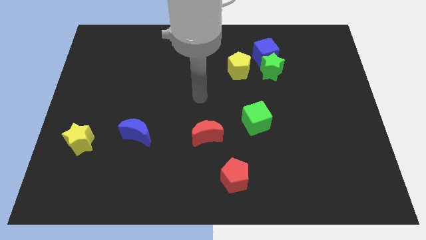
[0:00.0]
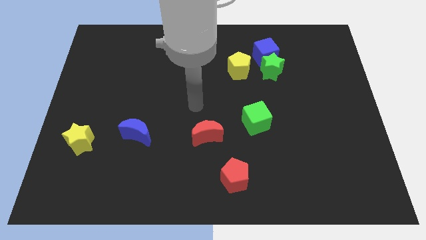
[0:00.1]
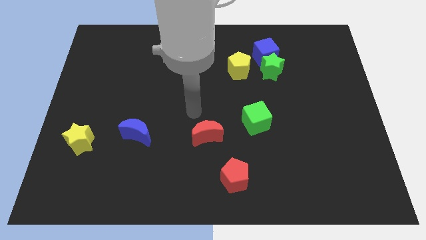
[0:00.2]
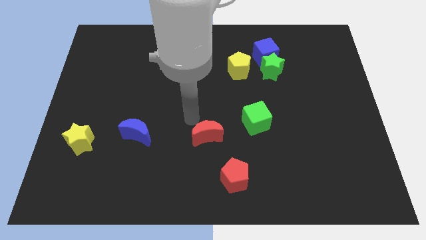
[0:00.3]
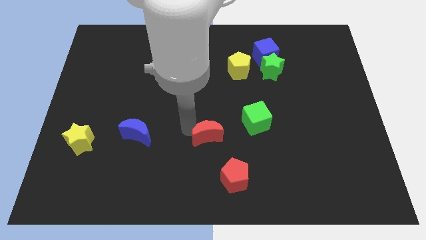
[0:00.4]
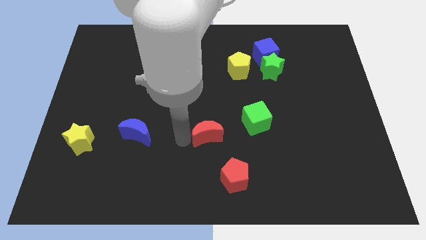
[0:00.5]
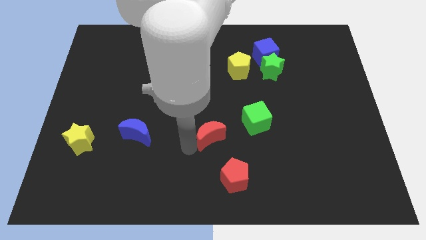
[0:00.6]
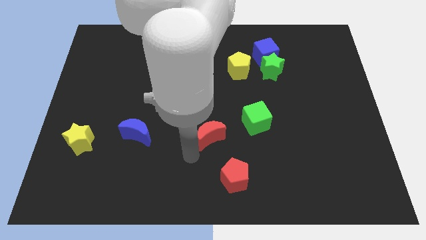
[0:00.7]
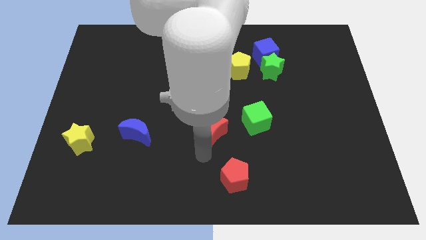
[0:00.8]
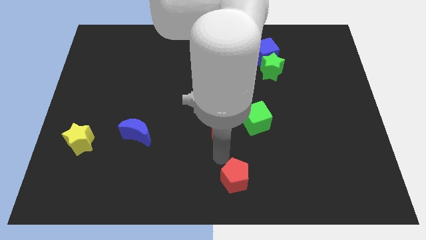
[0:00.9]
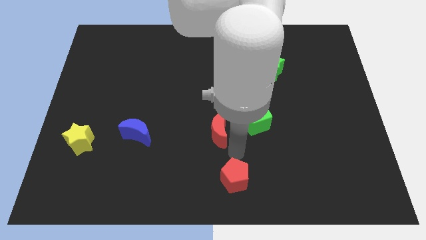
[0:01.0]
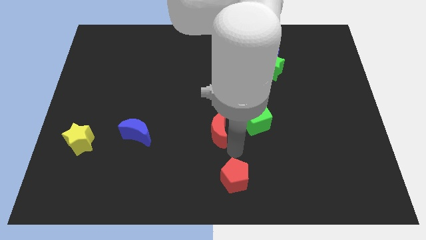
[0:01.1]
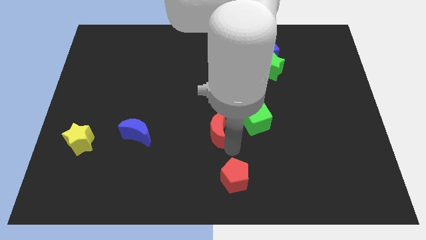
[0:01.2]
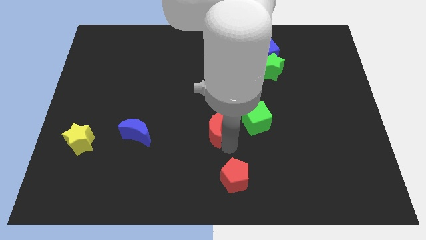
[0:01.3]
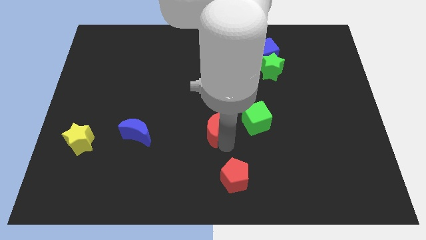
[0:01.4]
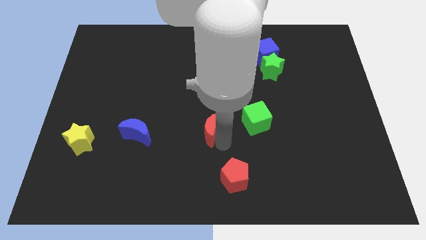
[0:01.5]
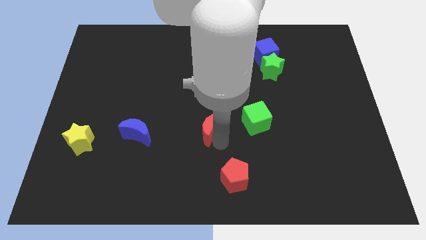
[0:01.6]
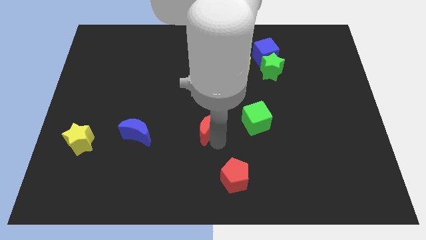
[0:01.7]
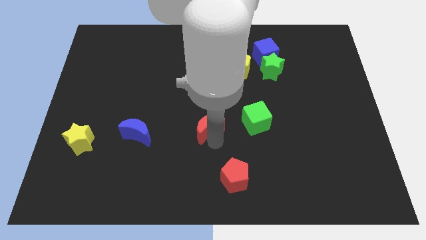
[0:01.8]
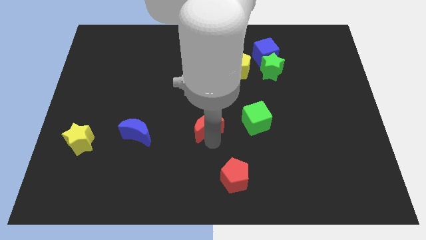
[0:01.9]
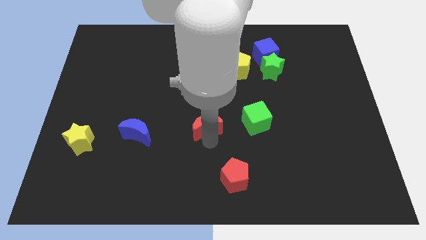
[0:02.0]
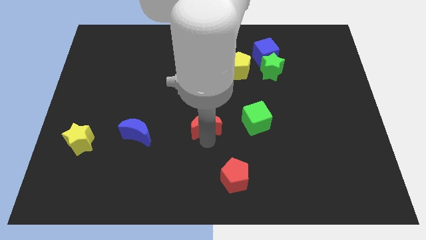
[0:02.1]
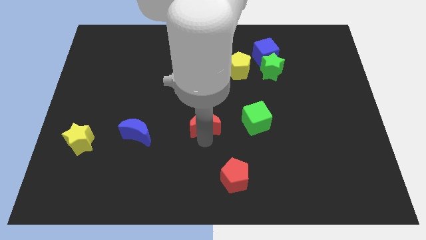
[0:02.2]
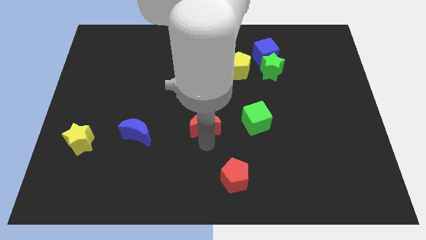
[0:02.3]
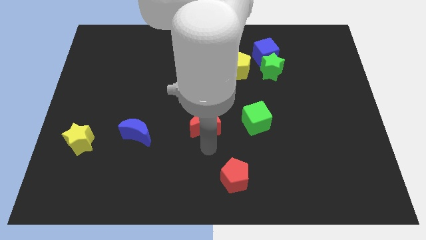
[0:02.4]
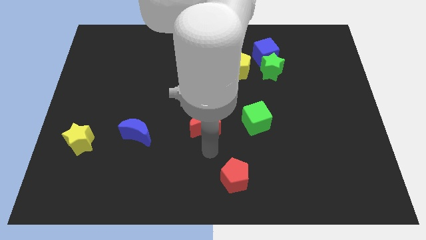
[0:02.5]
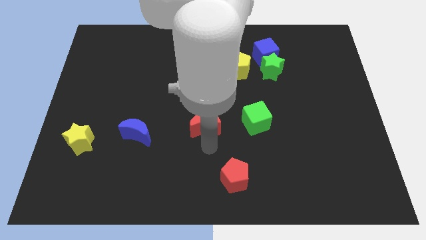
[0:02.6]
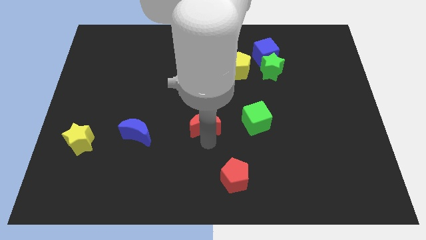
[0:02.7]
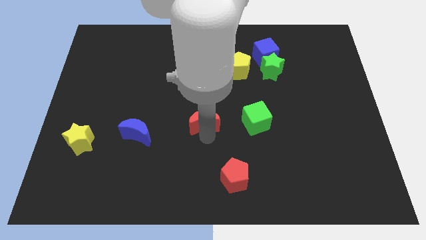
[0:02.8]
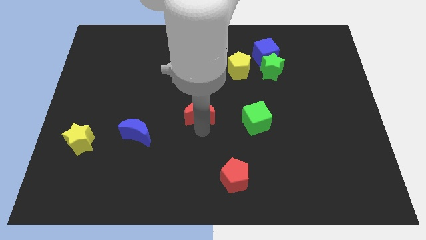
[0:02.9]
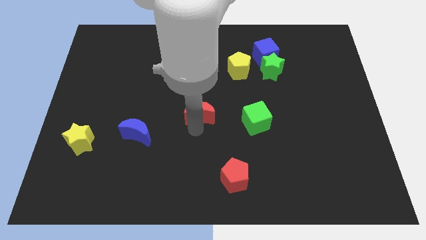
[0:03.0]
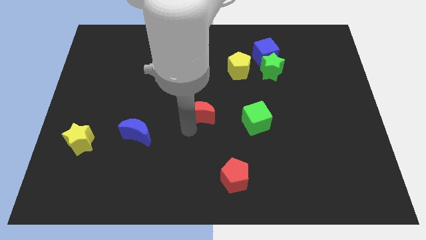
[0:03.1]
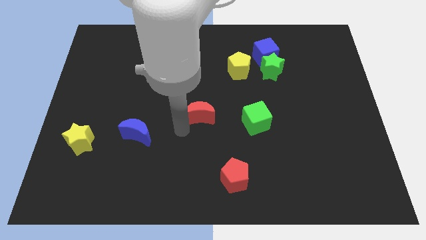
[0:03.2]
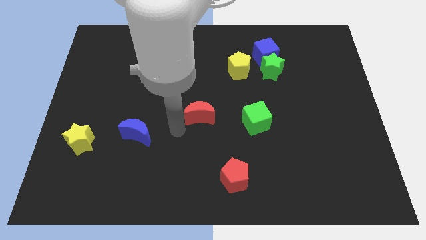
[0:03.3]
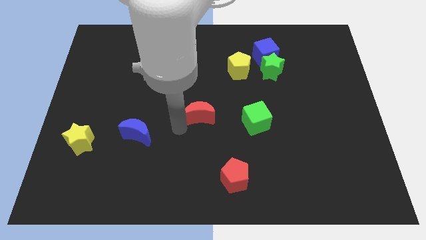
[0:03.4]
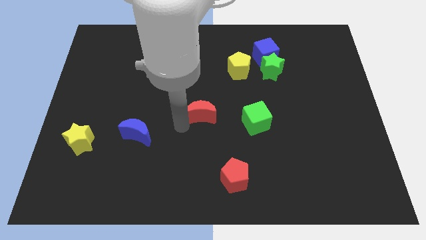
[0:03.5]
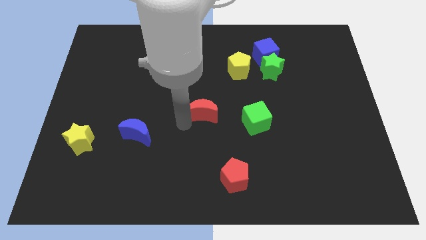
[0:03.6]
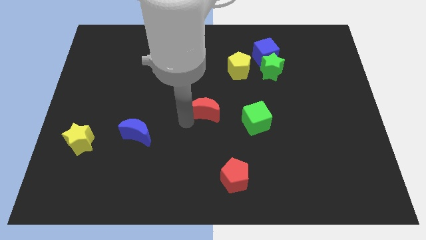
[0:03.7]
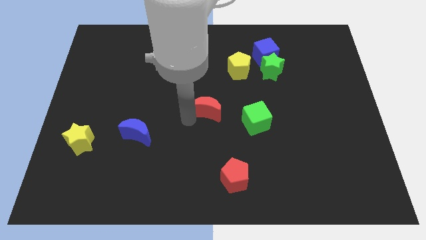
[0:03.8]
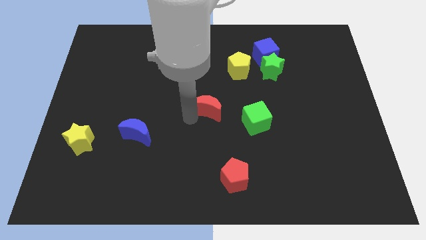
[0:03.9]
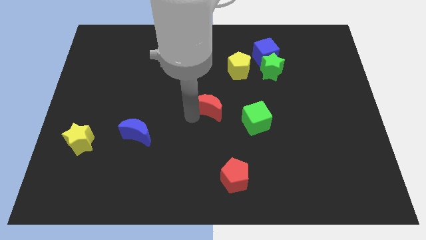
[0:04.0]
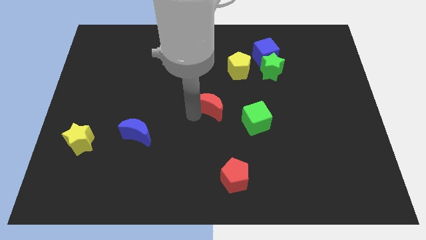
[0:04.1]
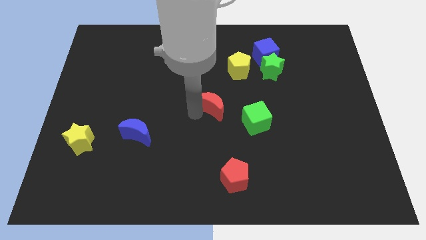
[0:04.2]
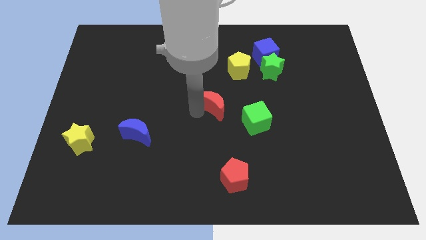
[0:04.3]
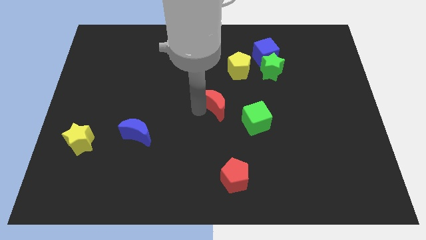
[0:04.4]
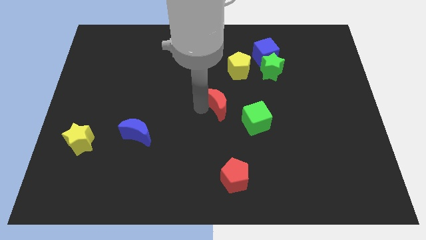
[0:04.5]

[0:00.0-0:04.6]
slide the red moon slightly up and right diagonally

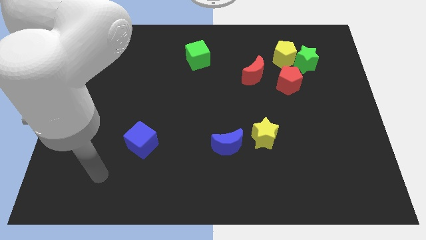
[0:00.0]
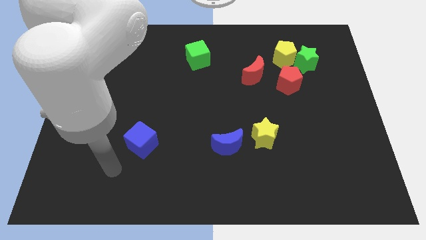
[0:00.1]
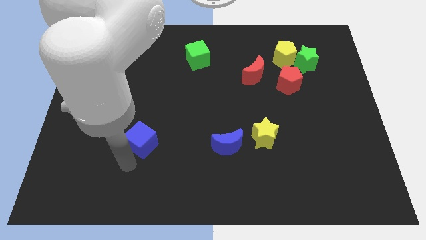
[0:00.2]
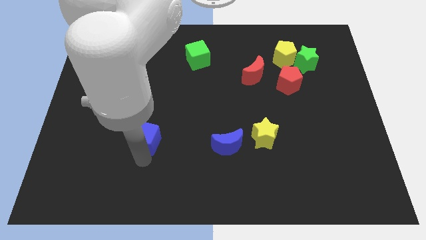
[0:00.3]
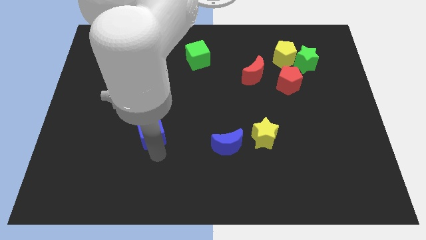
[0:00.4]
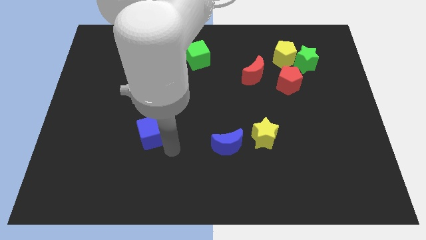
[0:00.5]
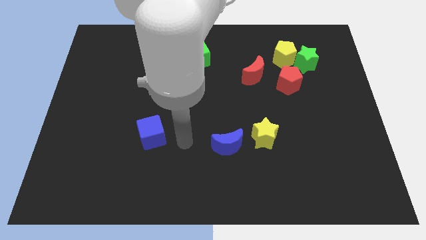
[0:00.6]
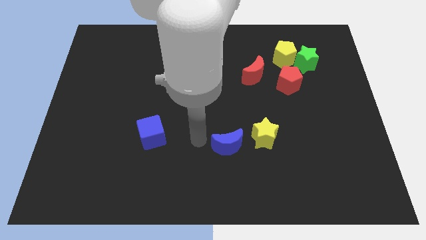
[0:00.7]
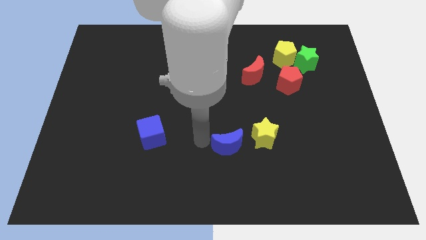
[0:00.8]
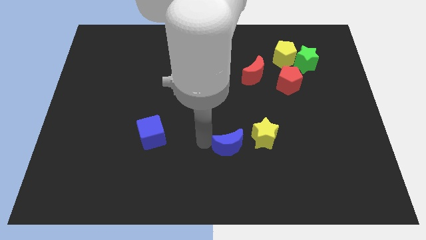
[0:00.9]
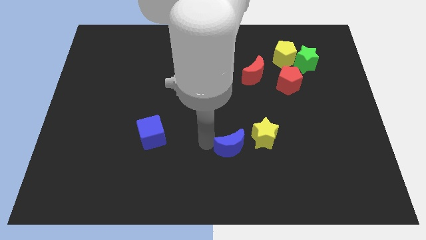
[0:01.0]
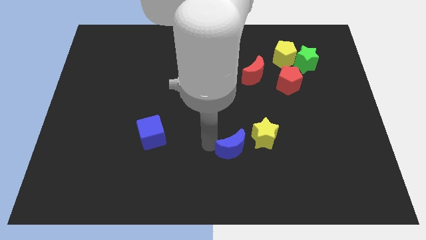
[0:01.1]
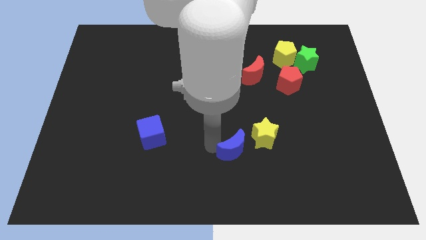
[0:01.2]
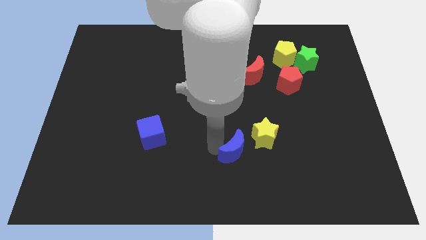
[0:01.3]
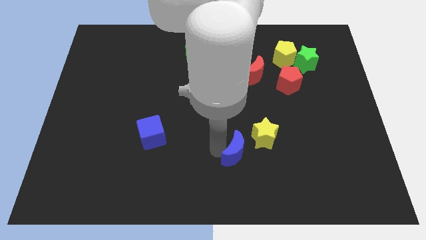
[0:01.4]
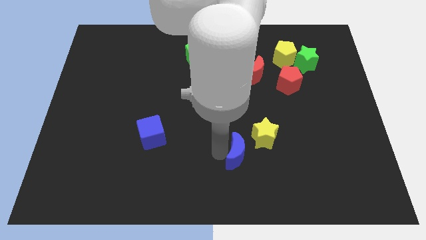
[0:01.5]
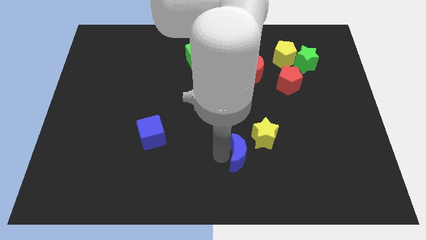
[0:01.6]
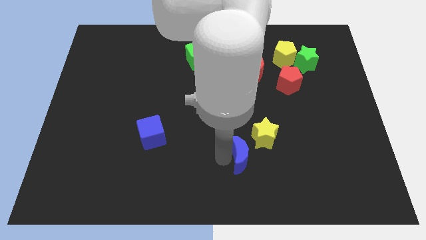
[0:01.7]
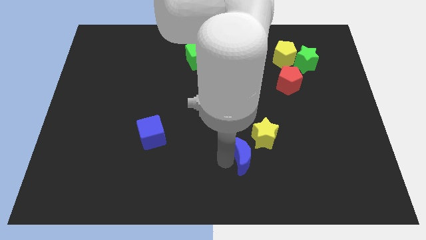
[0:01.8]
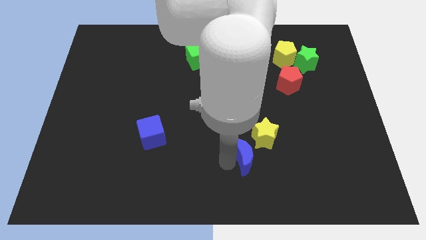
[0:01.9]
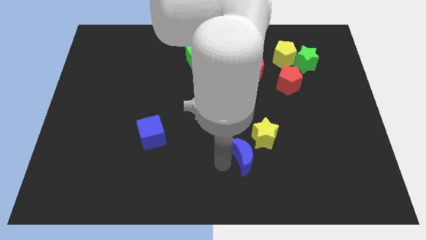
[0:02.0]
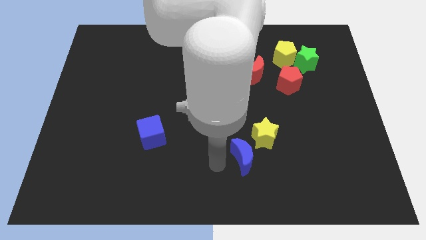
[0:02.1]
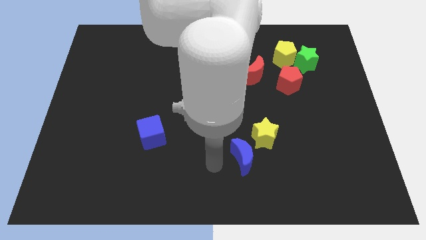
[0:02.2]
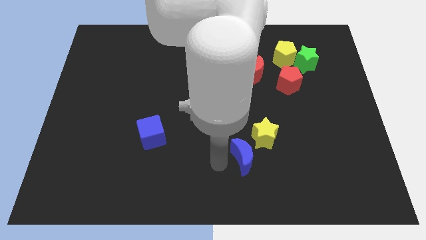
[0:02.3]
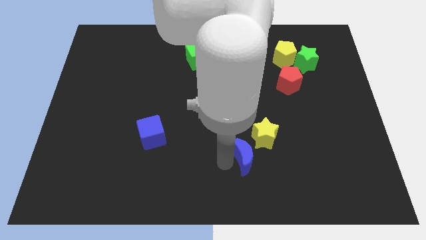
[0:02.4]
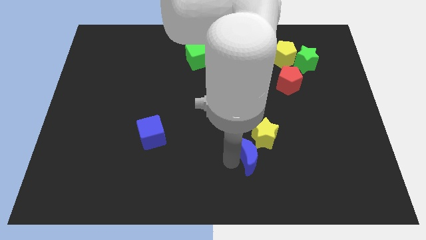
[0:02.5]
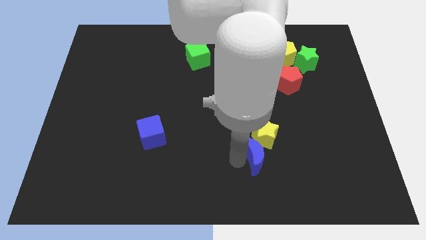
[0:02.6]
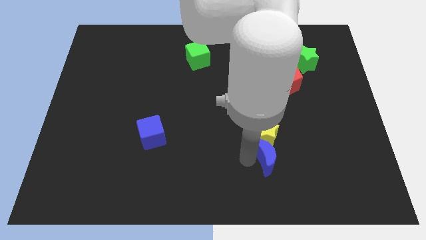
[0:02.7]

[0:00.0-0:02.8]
slightly move the blue moon right

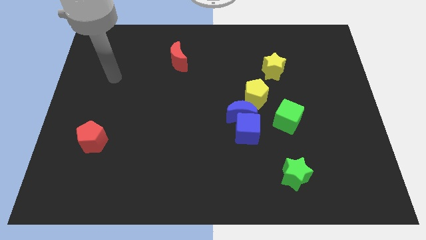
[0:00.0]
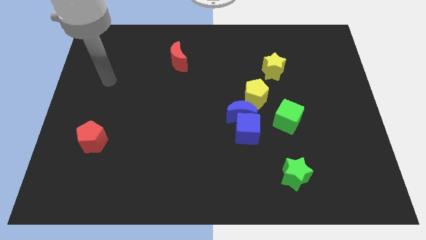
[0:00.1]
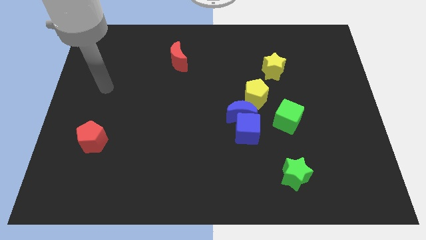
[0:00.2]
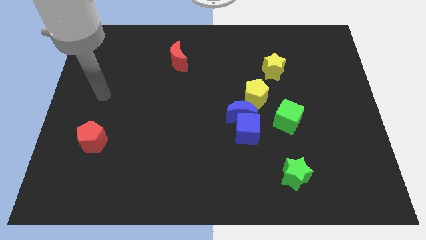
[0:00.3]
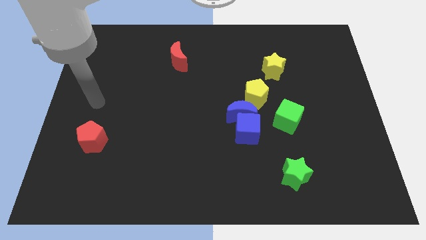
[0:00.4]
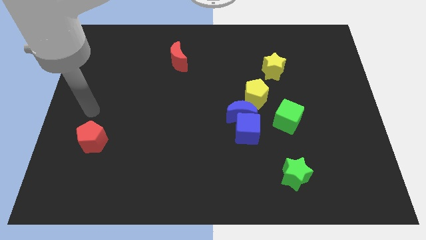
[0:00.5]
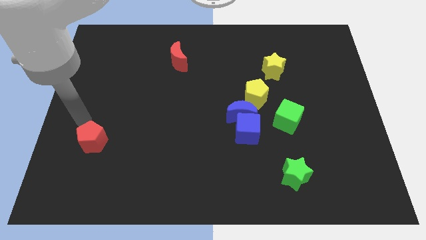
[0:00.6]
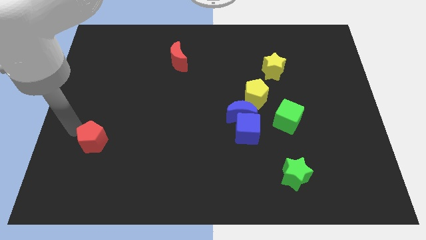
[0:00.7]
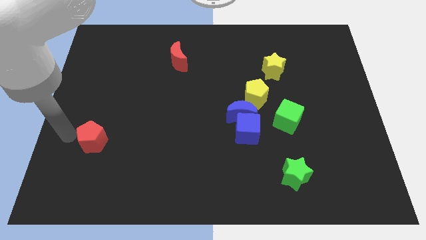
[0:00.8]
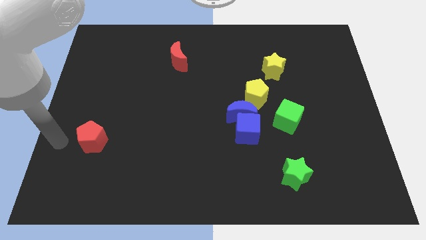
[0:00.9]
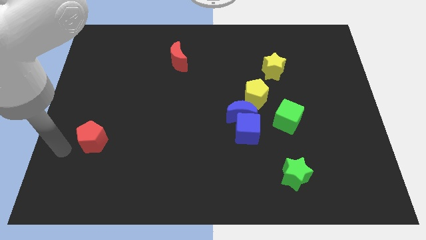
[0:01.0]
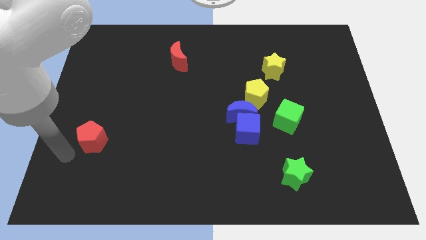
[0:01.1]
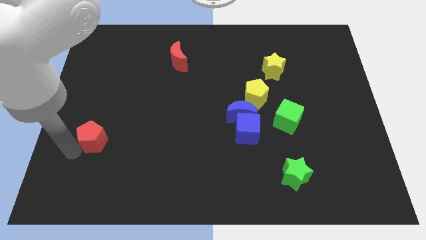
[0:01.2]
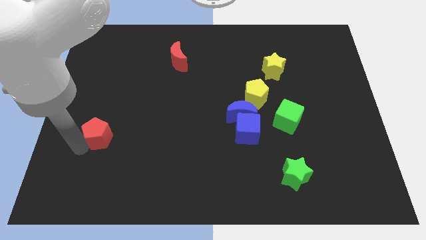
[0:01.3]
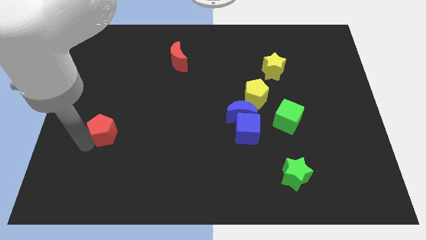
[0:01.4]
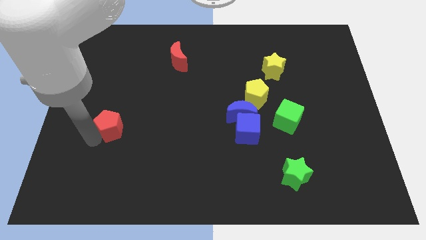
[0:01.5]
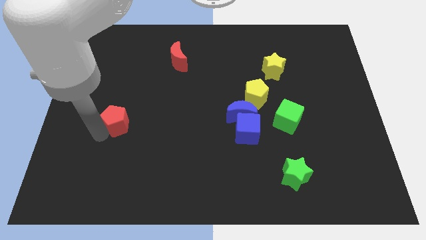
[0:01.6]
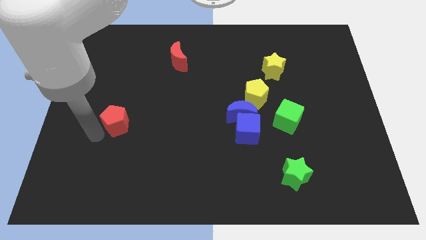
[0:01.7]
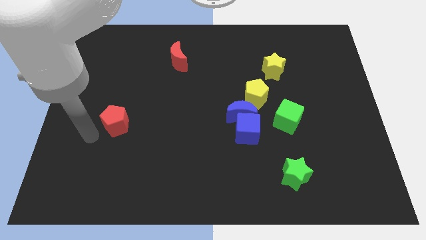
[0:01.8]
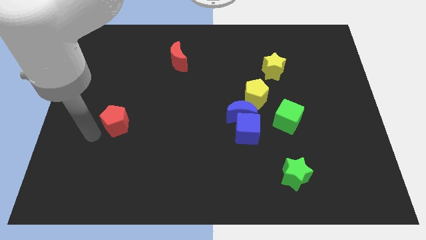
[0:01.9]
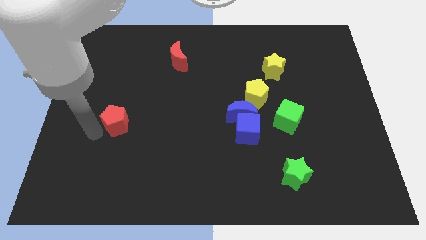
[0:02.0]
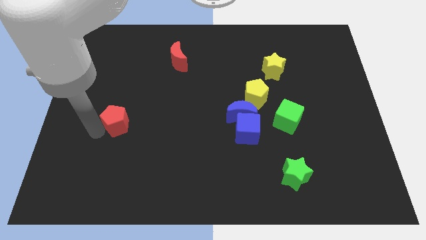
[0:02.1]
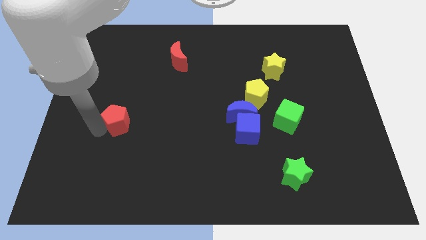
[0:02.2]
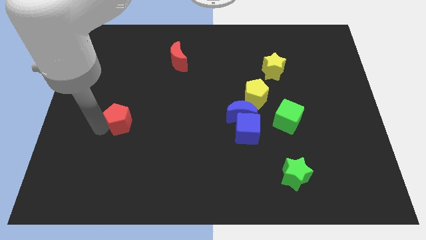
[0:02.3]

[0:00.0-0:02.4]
slightly push the red pentagon diagonally upwards and to the right
